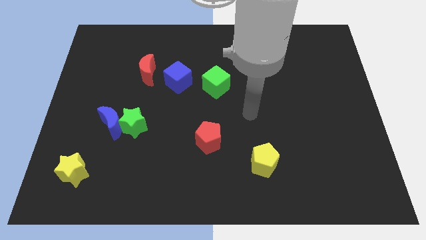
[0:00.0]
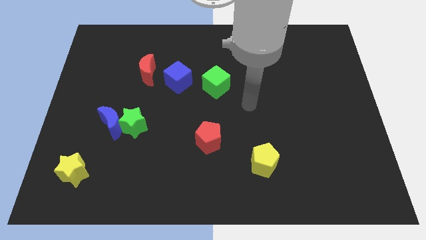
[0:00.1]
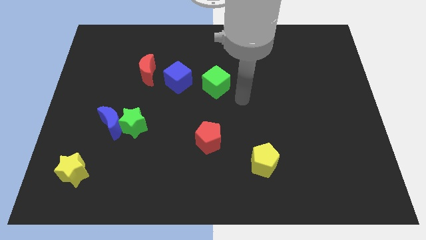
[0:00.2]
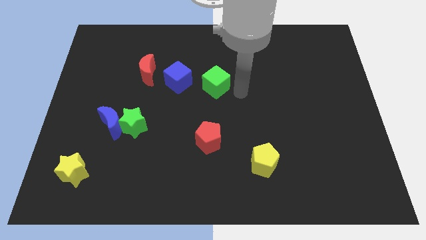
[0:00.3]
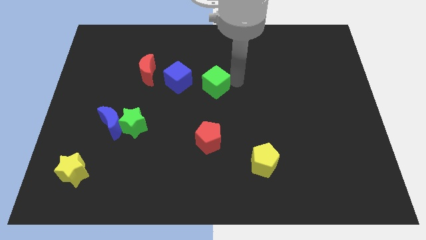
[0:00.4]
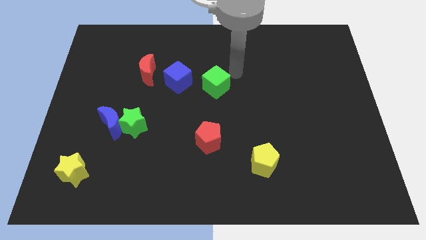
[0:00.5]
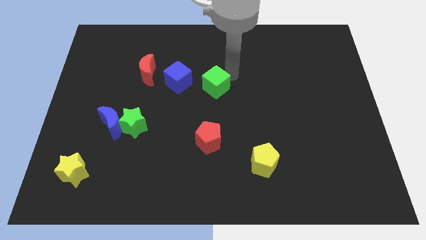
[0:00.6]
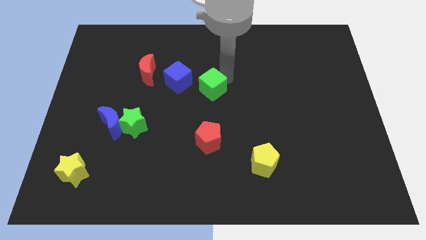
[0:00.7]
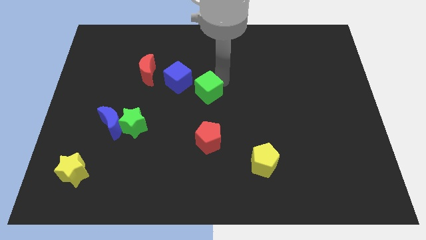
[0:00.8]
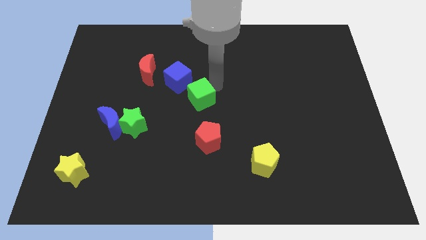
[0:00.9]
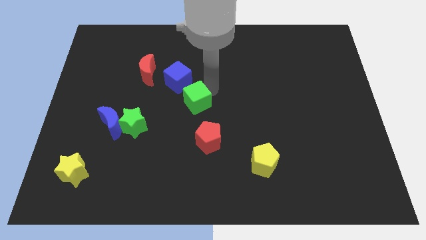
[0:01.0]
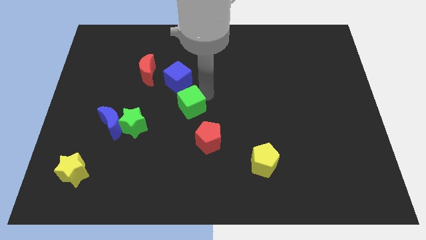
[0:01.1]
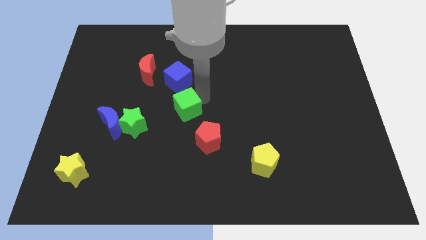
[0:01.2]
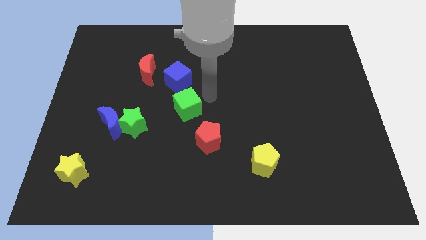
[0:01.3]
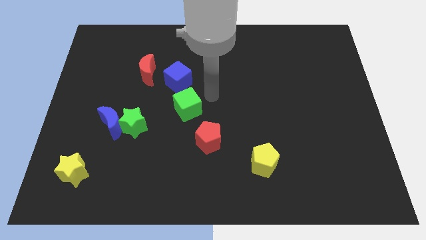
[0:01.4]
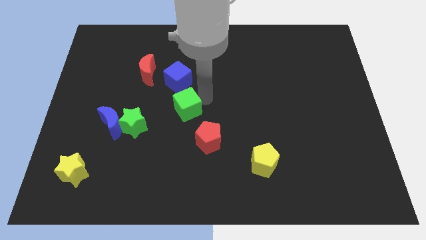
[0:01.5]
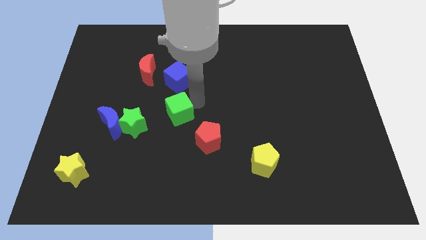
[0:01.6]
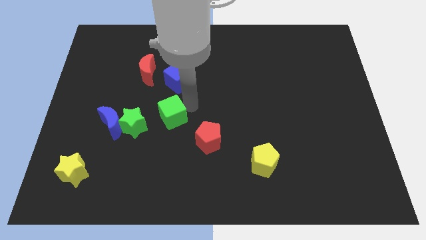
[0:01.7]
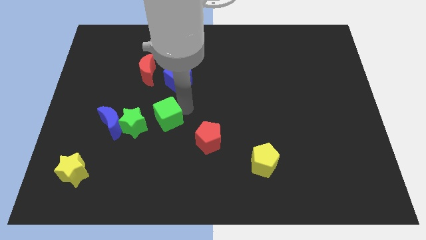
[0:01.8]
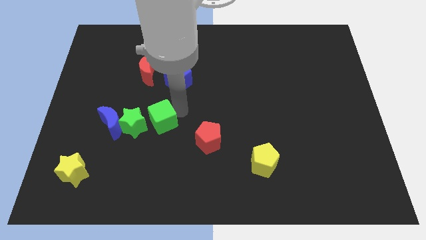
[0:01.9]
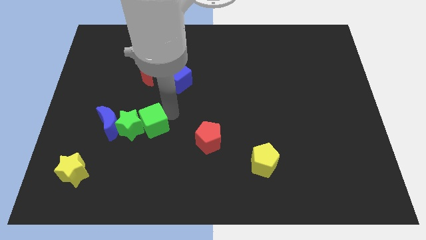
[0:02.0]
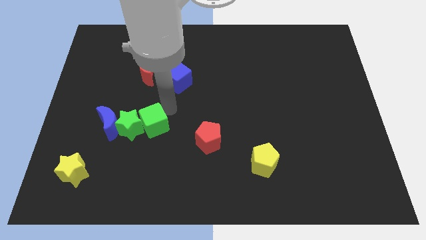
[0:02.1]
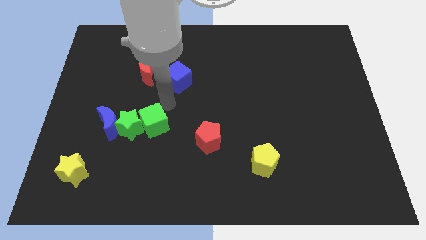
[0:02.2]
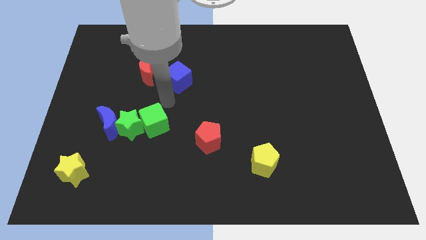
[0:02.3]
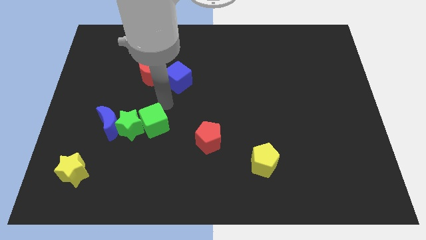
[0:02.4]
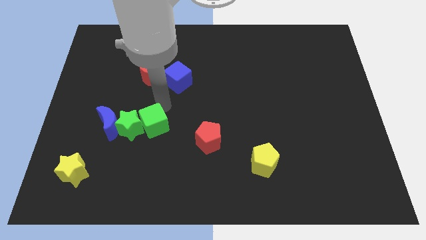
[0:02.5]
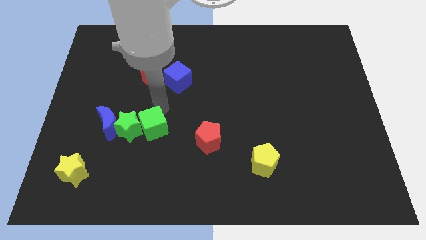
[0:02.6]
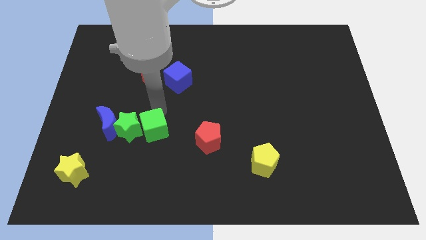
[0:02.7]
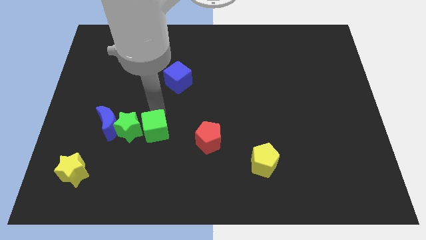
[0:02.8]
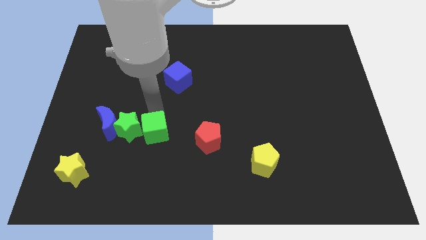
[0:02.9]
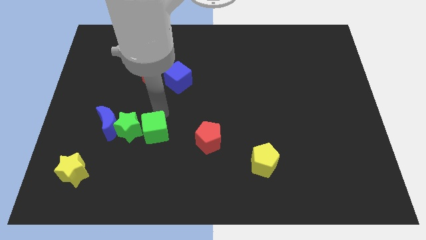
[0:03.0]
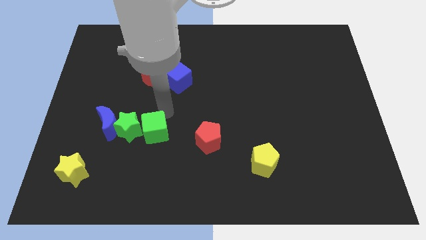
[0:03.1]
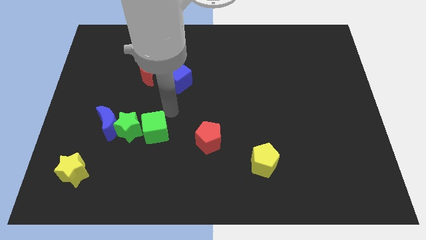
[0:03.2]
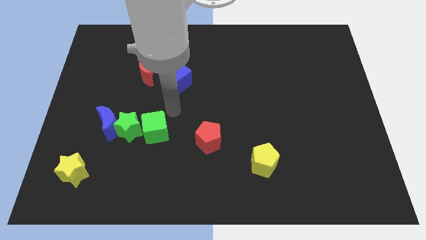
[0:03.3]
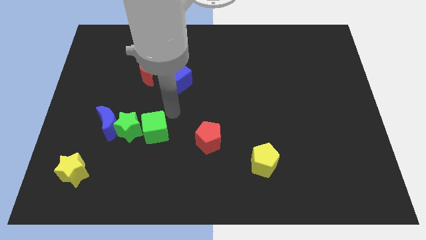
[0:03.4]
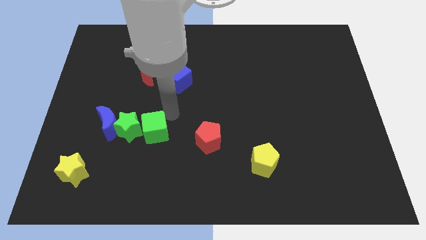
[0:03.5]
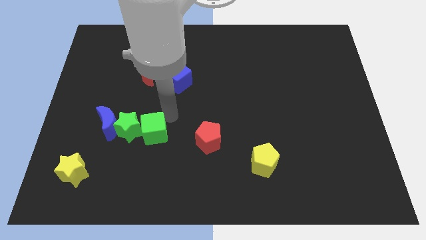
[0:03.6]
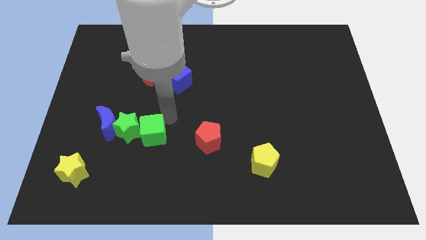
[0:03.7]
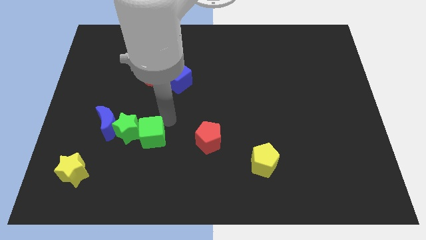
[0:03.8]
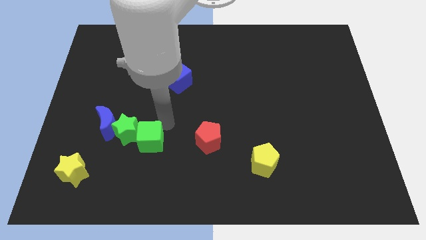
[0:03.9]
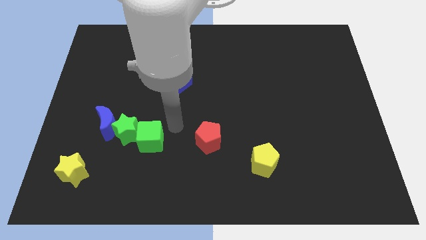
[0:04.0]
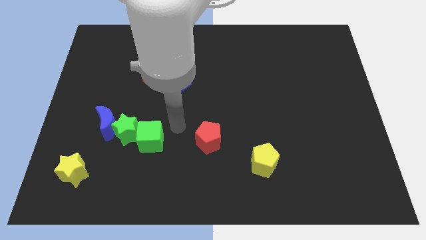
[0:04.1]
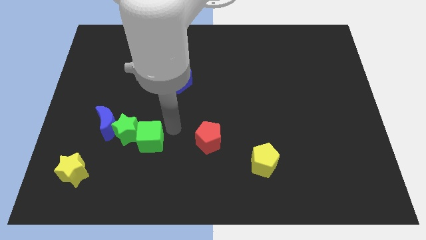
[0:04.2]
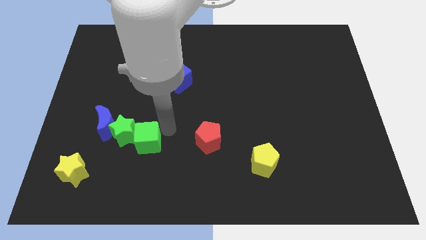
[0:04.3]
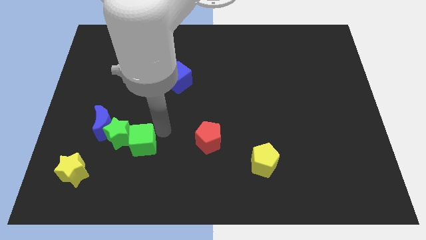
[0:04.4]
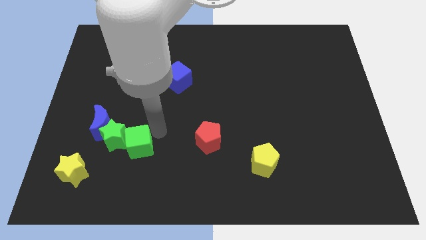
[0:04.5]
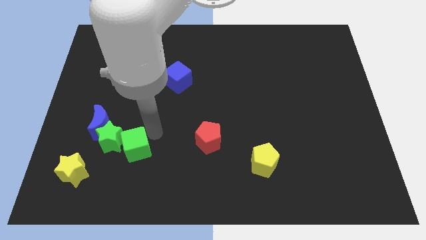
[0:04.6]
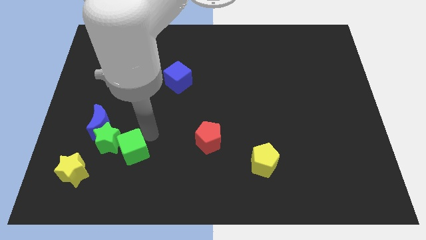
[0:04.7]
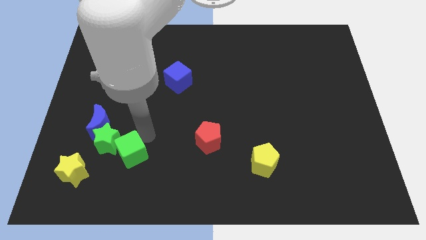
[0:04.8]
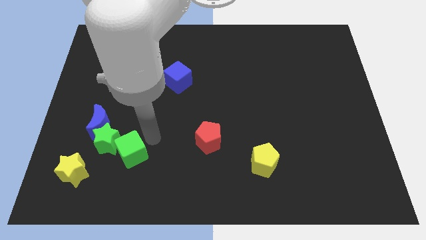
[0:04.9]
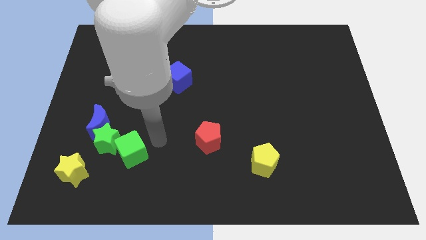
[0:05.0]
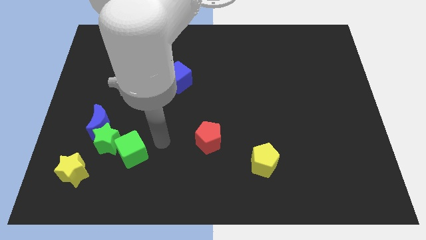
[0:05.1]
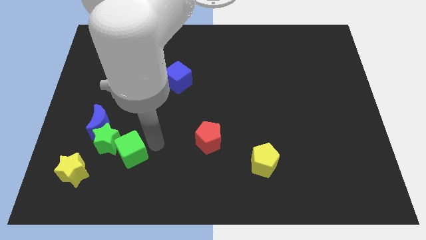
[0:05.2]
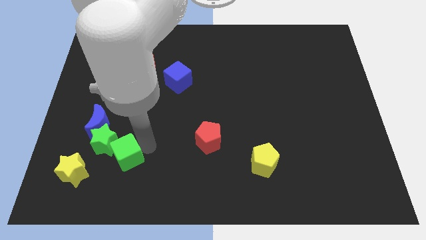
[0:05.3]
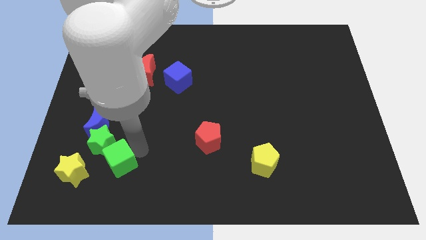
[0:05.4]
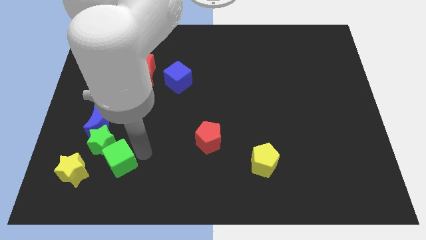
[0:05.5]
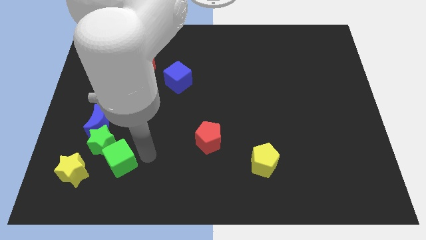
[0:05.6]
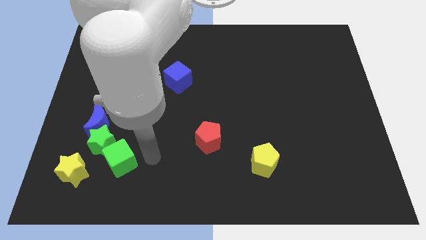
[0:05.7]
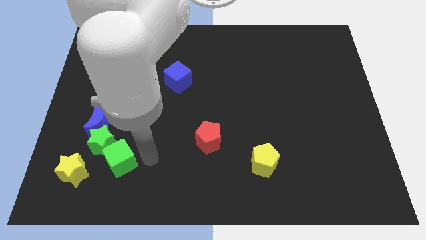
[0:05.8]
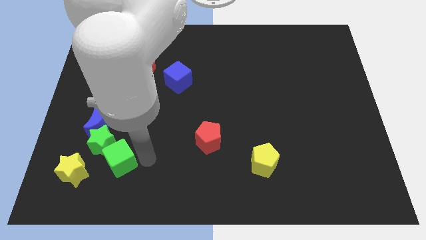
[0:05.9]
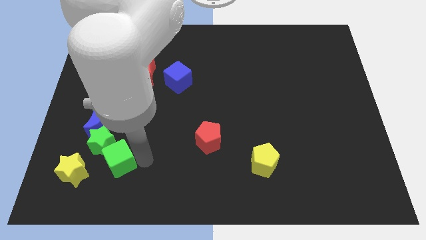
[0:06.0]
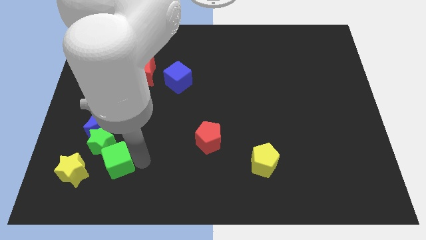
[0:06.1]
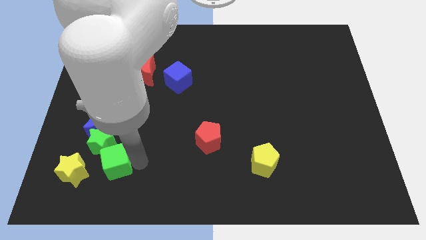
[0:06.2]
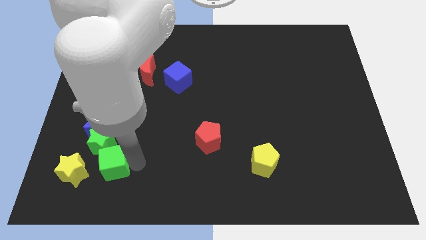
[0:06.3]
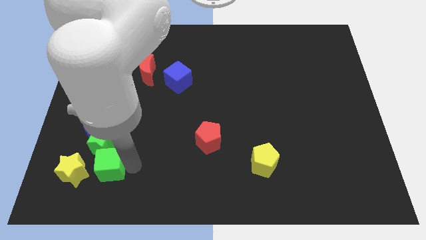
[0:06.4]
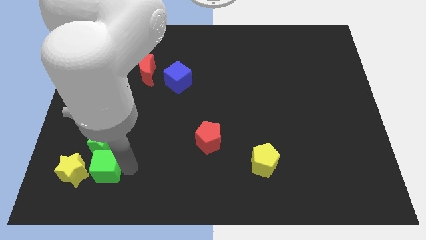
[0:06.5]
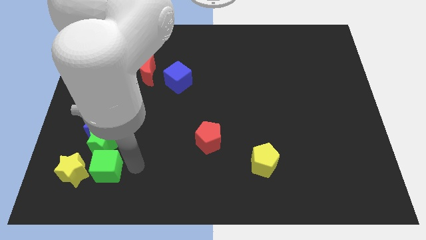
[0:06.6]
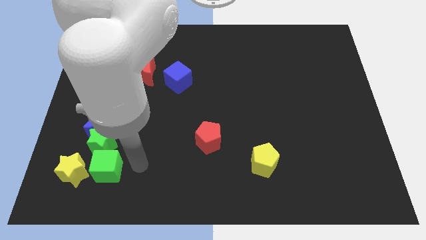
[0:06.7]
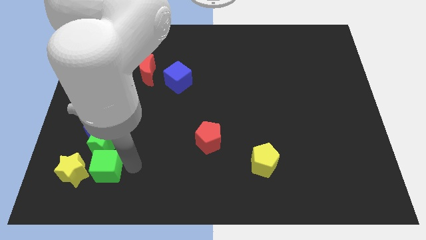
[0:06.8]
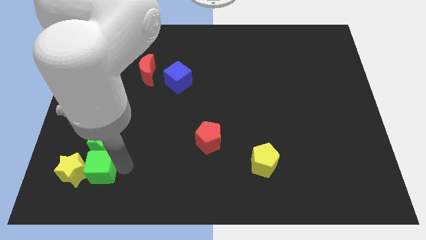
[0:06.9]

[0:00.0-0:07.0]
move the green cube towards the yellow star

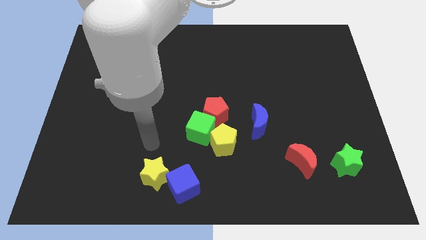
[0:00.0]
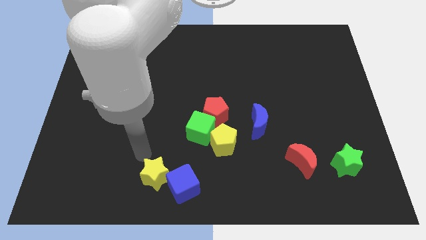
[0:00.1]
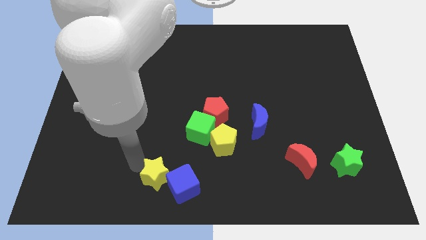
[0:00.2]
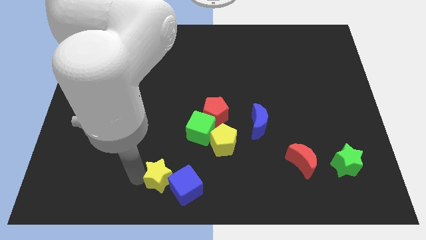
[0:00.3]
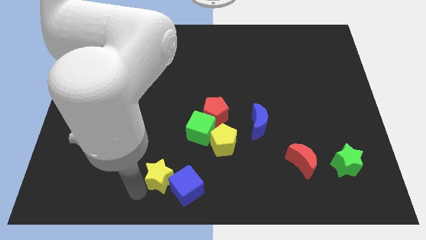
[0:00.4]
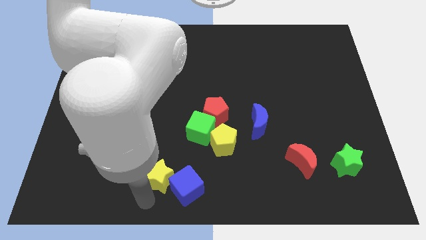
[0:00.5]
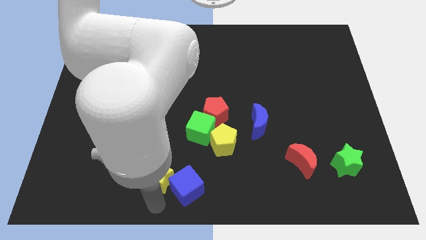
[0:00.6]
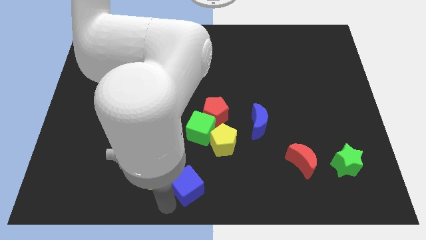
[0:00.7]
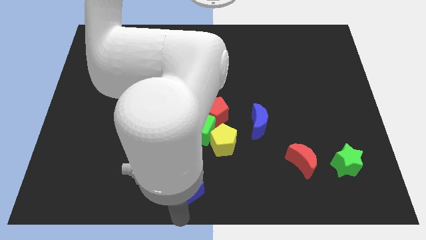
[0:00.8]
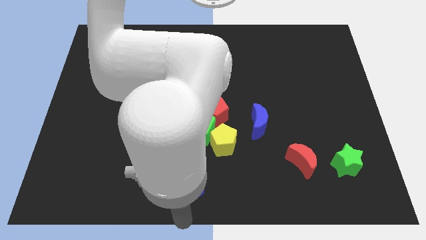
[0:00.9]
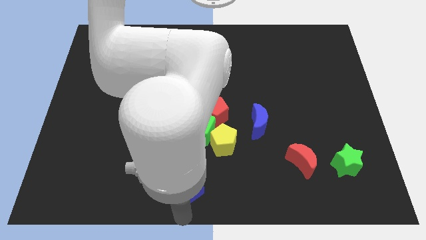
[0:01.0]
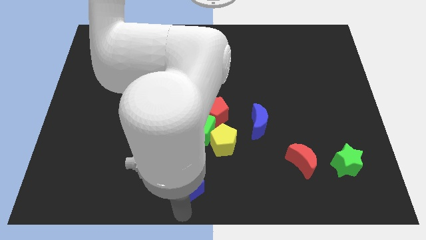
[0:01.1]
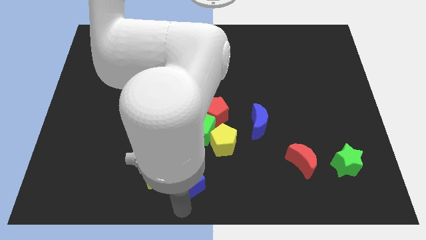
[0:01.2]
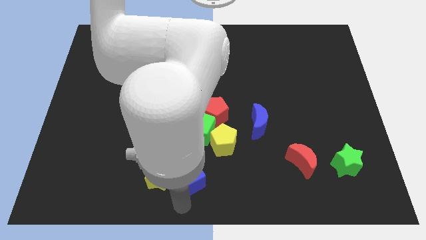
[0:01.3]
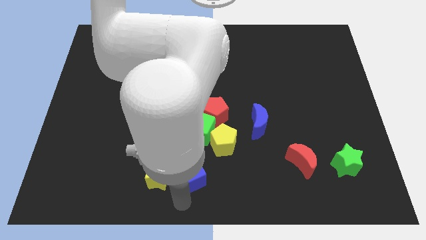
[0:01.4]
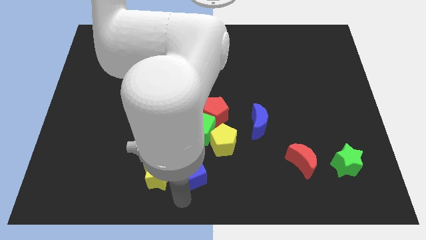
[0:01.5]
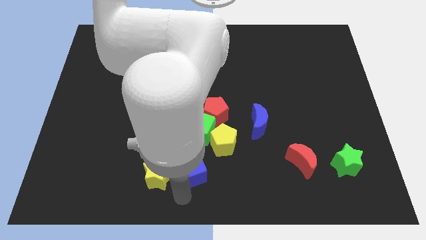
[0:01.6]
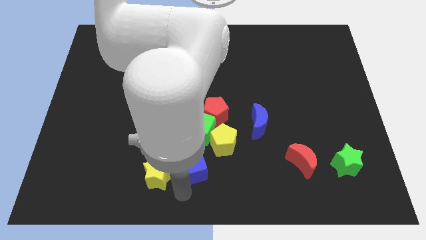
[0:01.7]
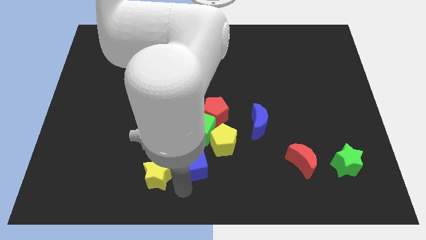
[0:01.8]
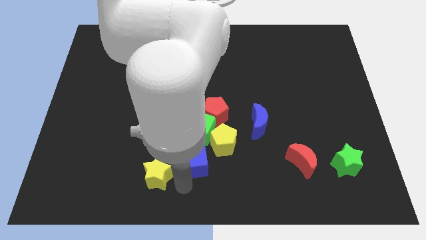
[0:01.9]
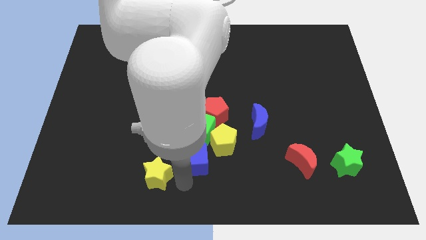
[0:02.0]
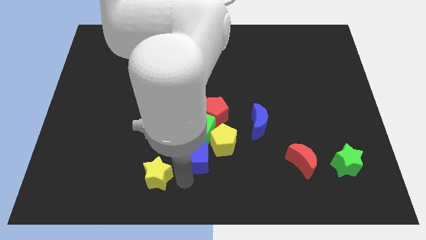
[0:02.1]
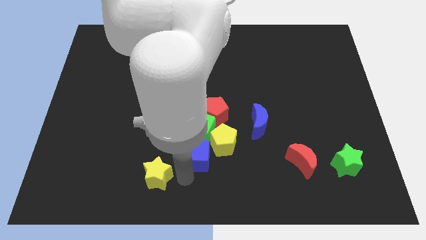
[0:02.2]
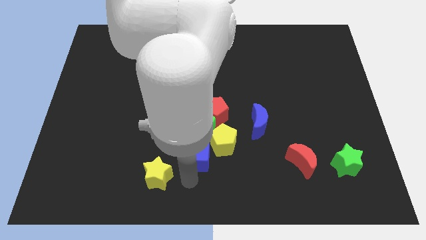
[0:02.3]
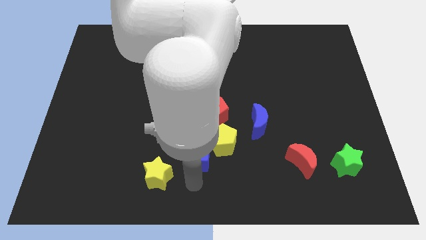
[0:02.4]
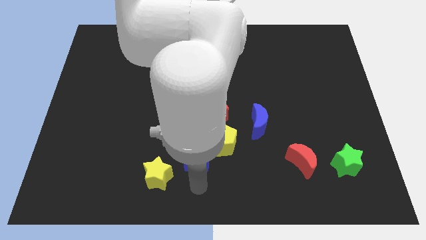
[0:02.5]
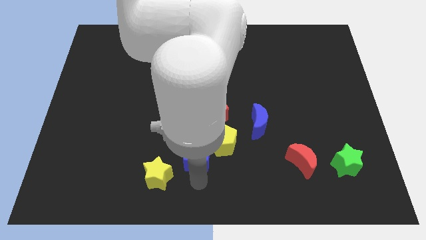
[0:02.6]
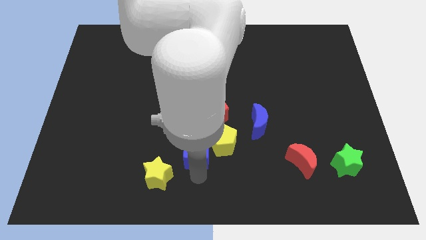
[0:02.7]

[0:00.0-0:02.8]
push the blue cube next to the green cube
